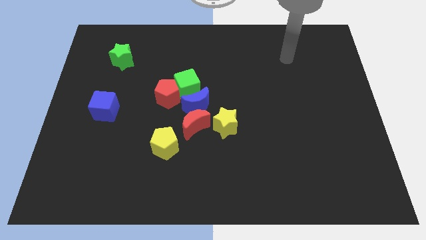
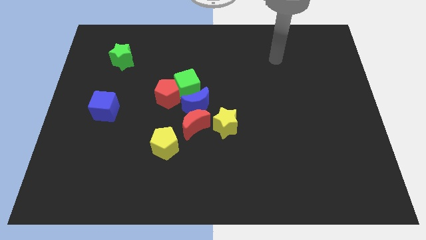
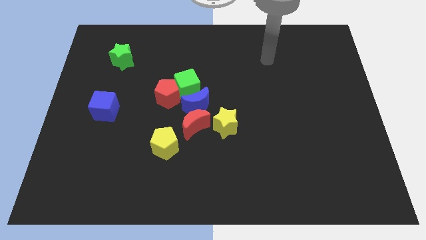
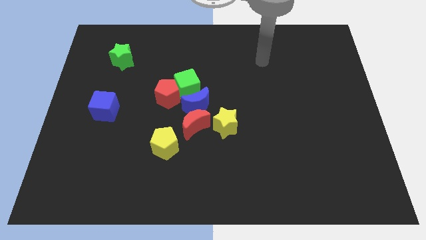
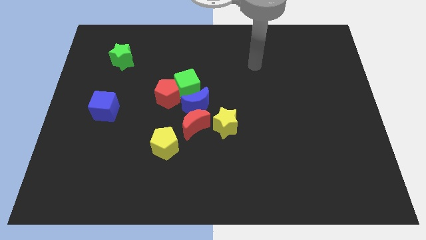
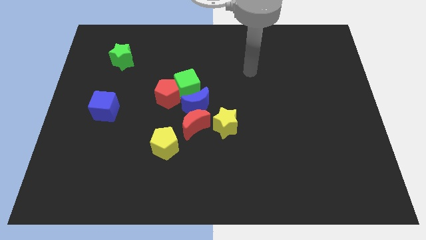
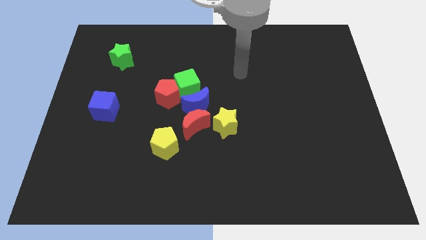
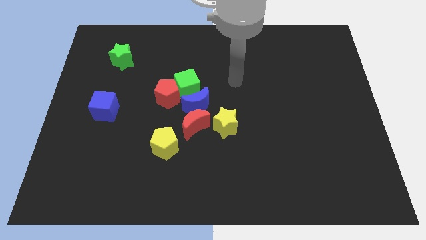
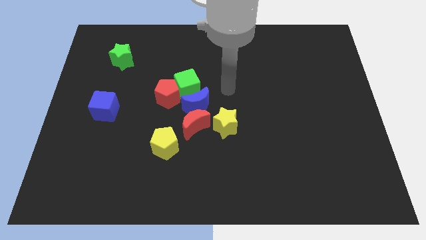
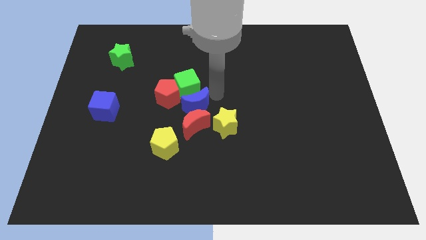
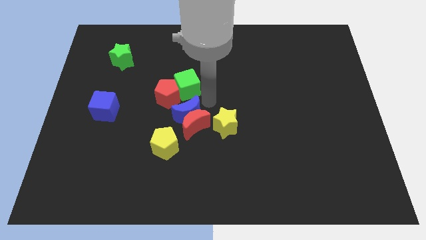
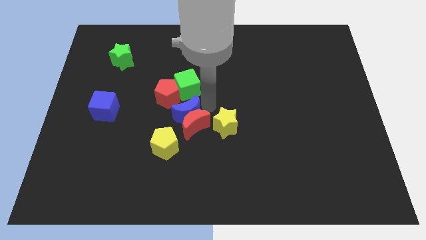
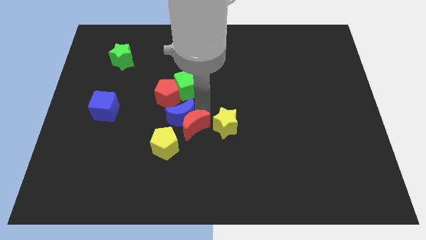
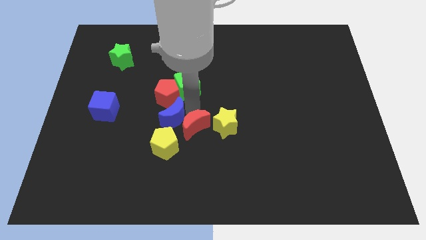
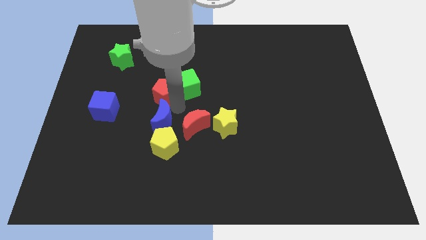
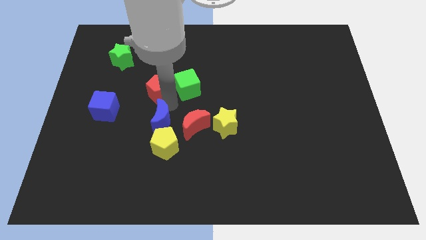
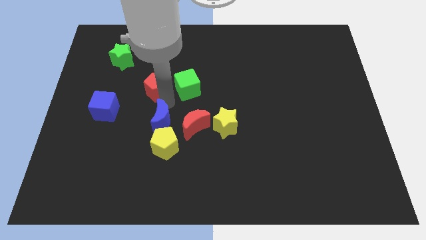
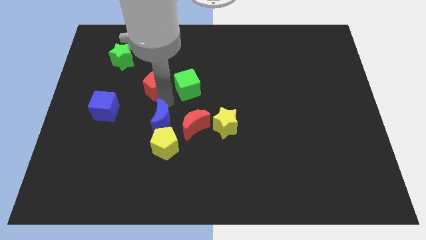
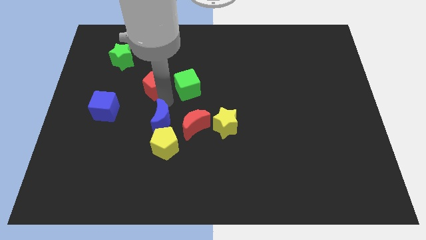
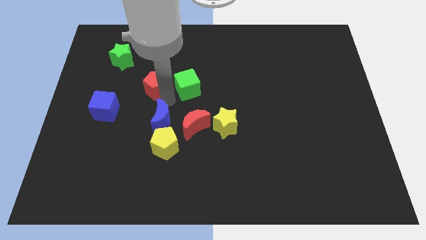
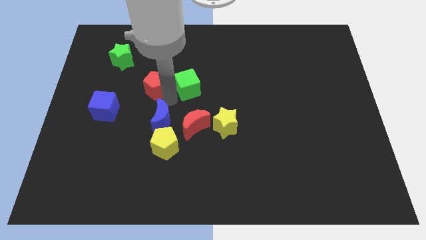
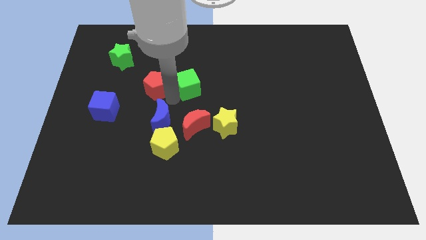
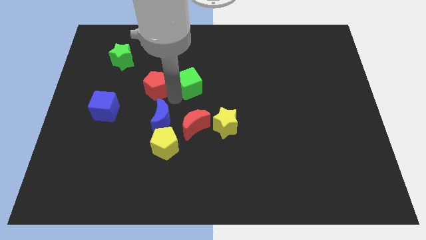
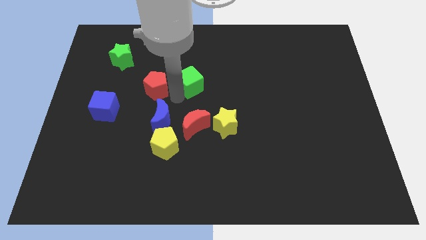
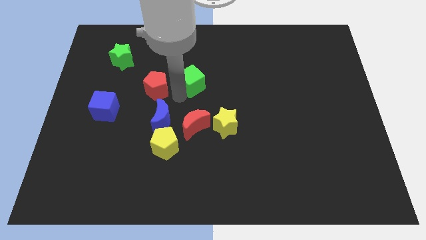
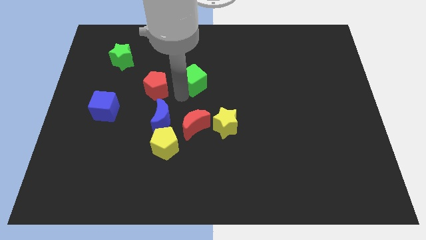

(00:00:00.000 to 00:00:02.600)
move the green cube away from the red pentagon and blue moon

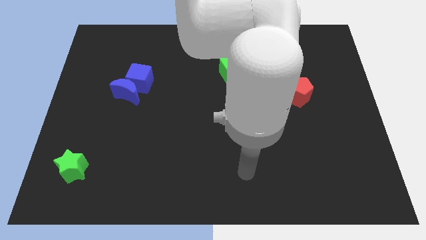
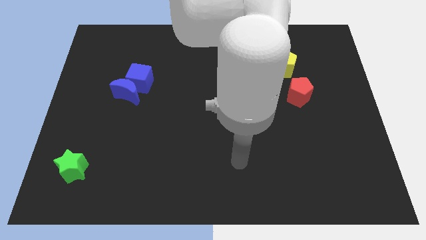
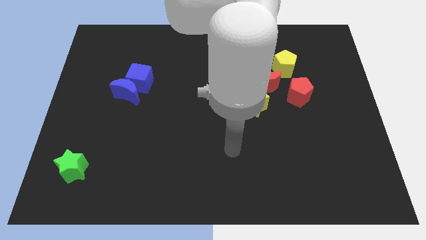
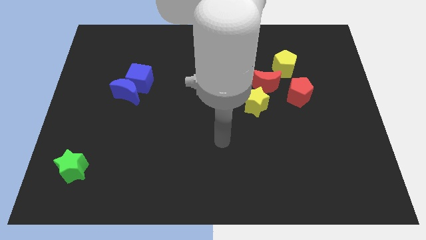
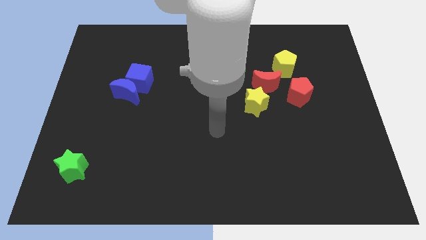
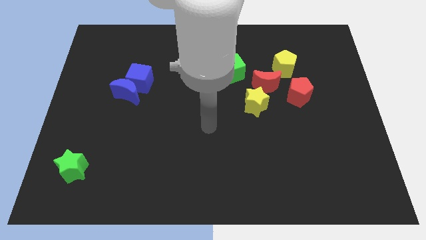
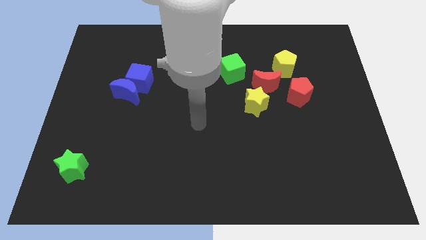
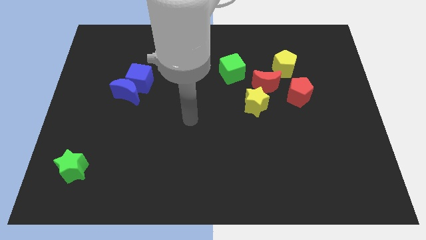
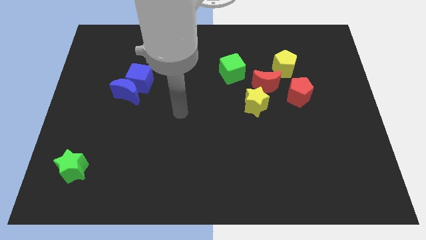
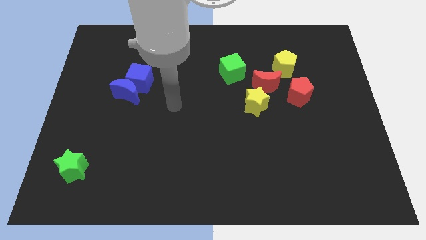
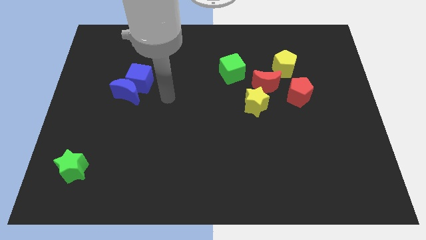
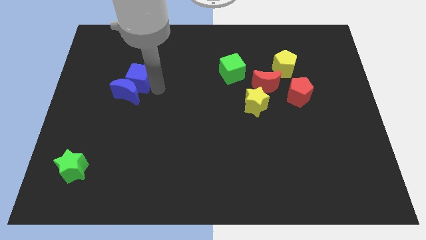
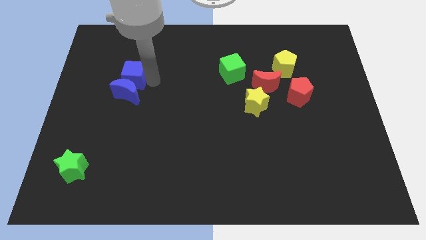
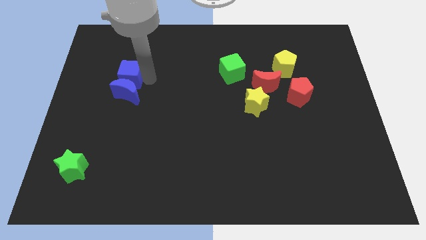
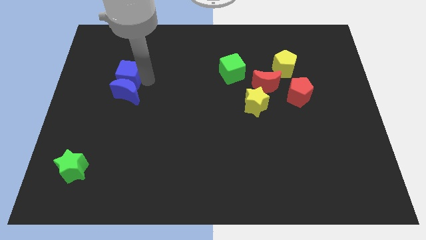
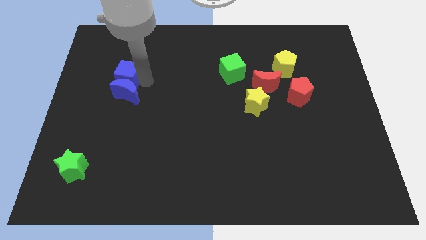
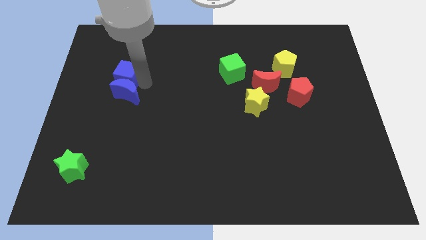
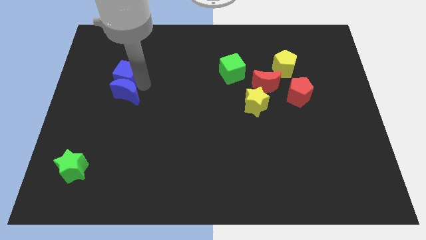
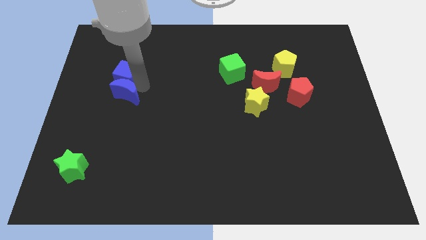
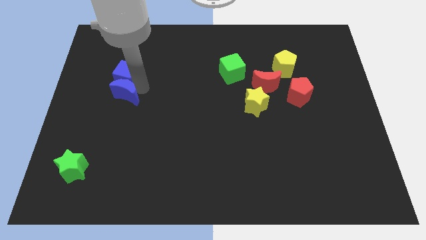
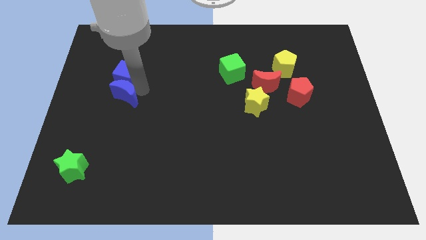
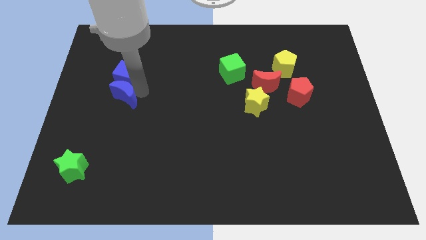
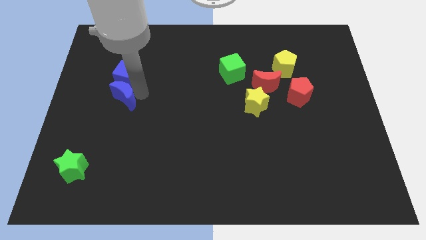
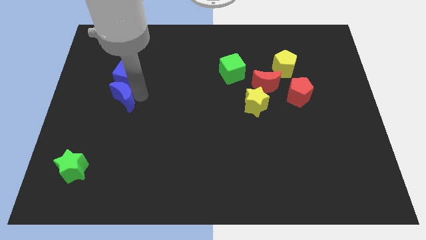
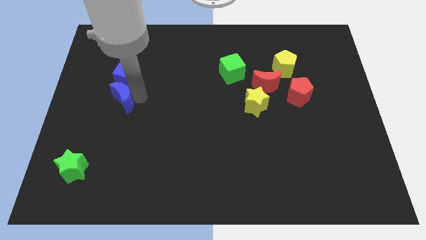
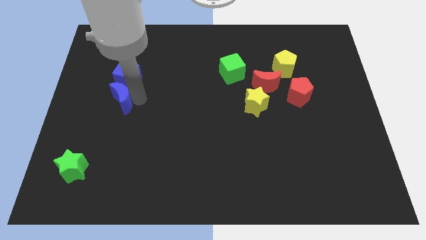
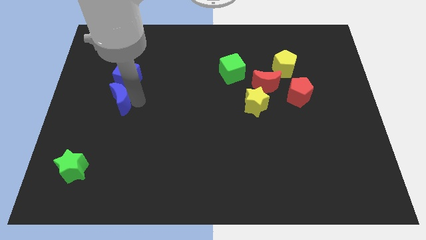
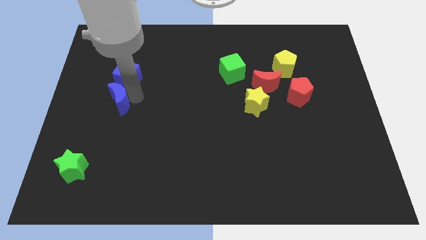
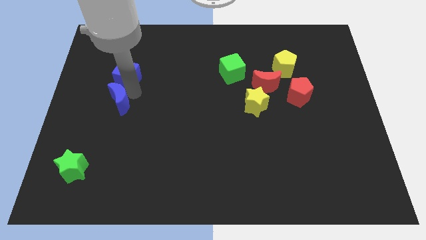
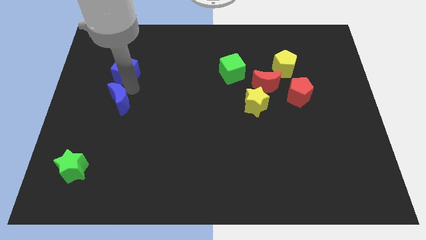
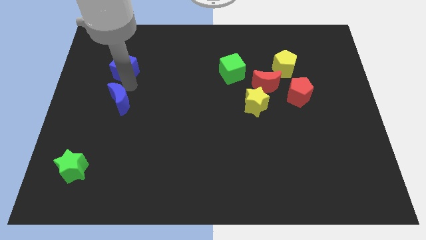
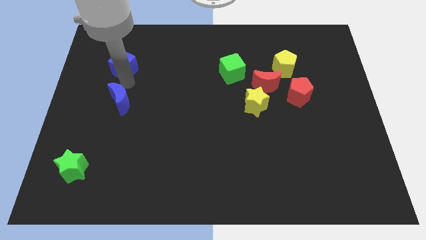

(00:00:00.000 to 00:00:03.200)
pull the blue moon apart from the blue cube

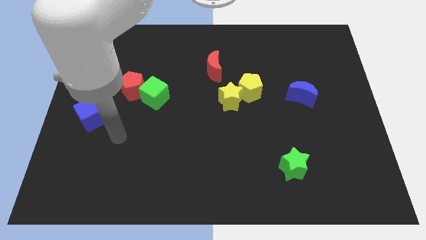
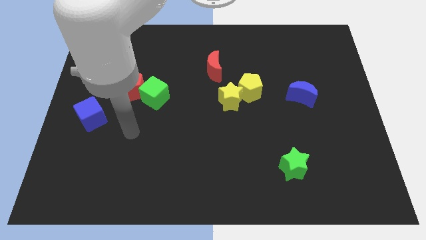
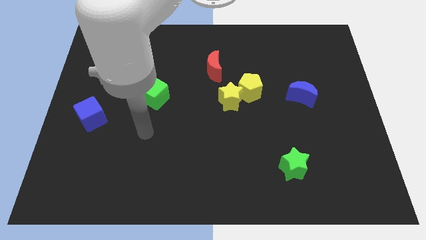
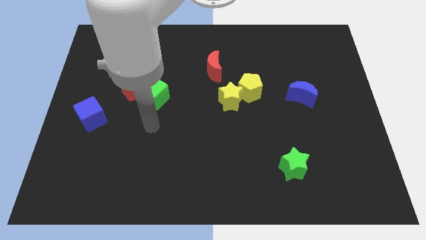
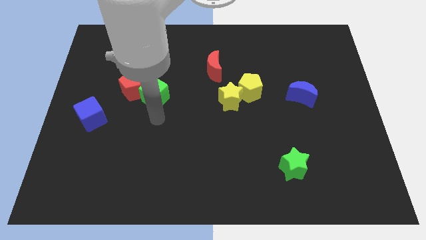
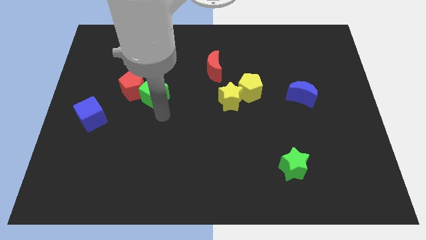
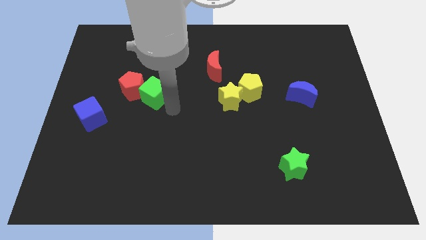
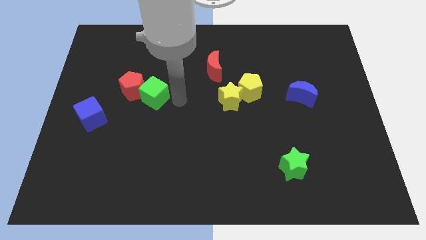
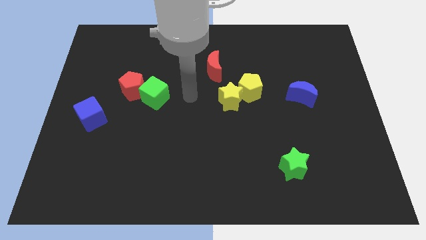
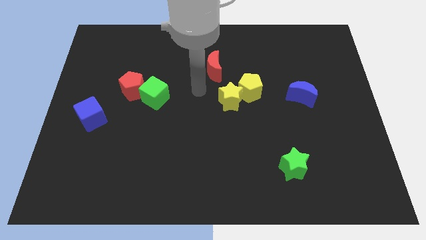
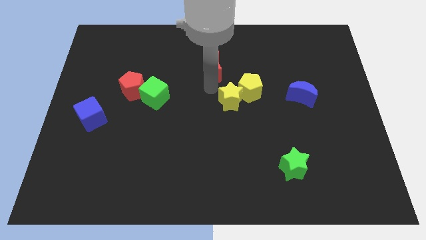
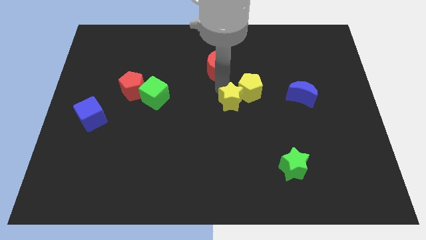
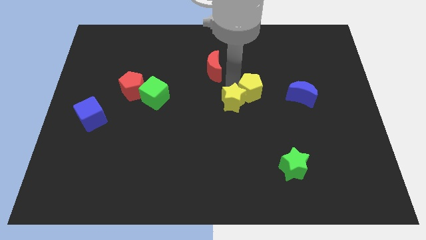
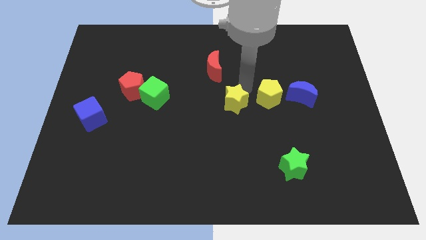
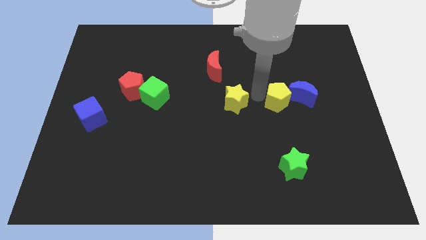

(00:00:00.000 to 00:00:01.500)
pull the yellow star apart from the yellow pentagon

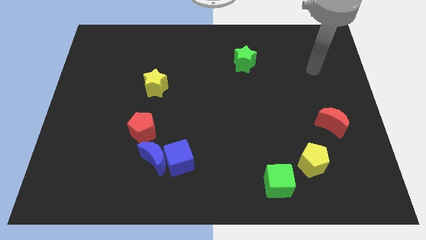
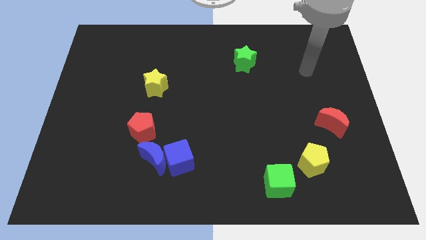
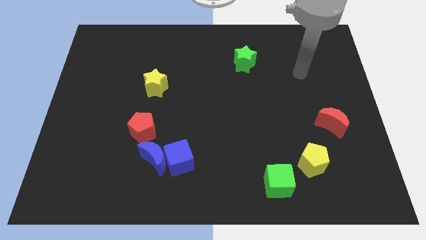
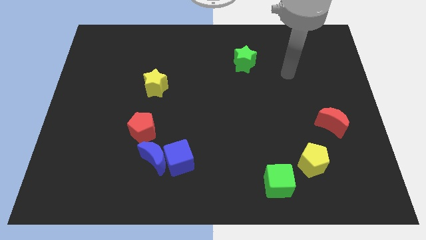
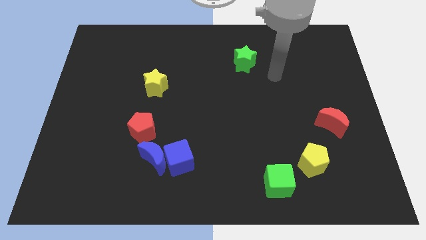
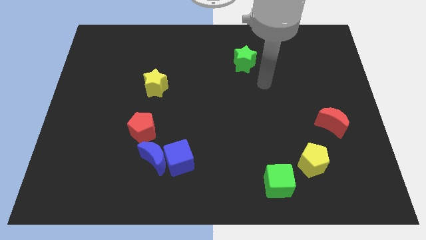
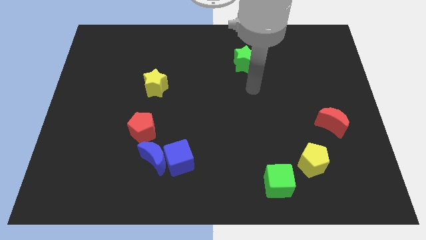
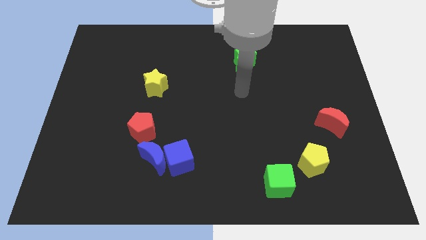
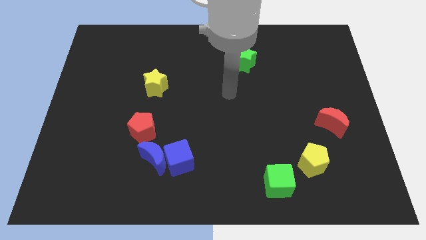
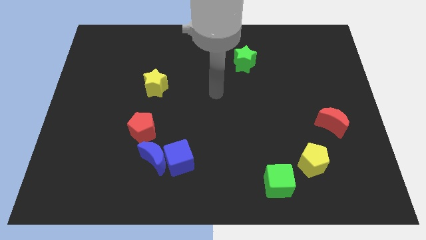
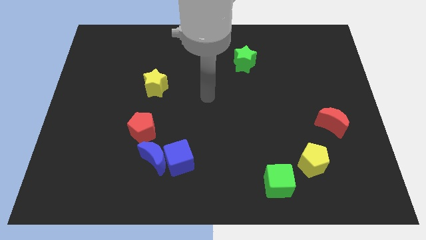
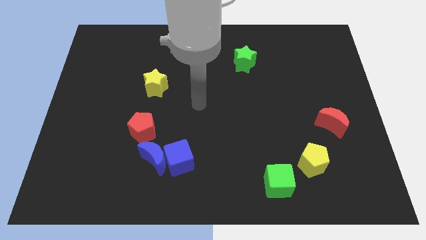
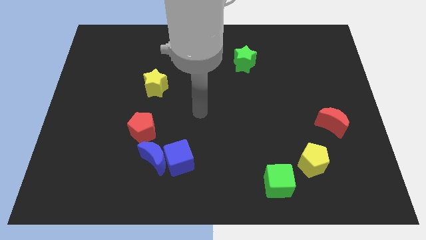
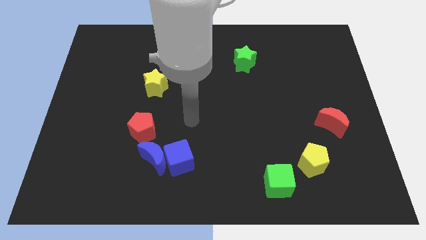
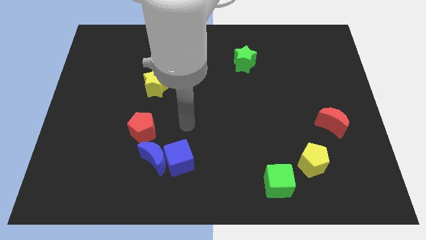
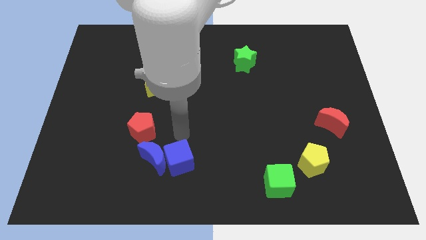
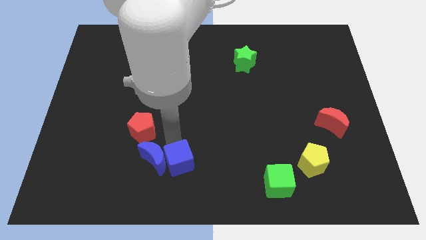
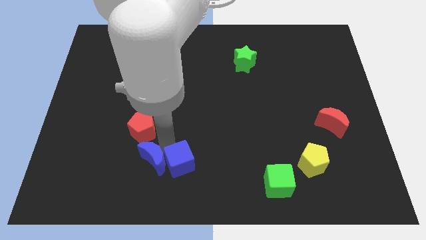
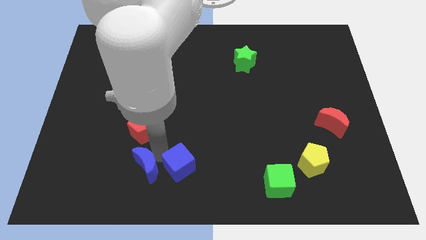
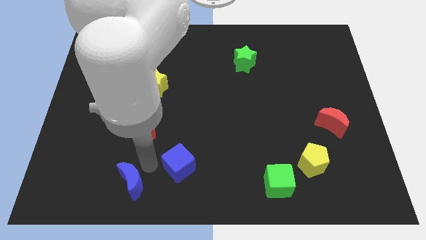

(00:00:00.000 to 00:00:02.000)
pull the blue cube apart from the blue moon

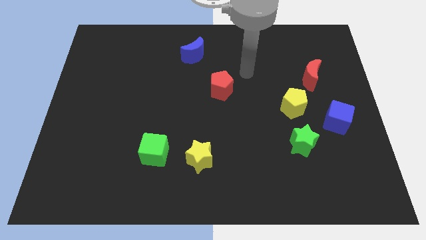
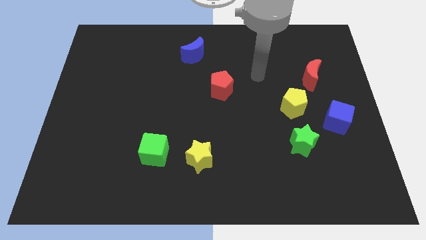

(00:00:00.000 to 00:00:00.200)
separate the green cube from the yellow star

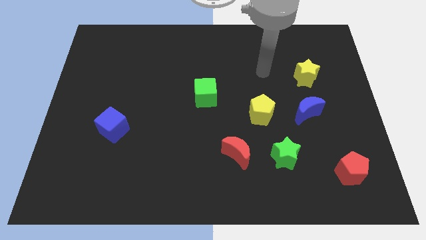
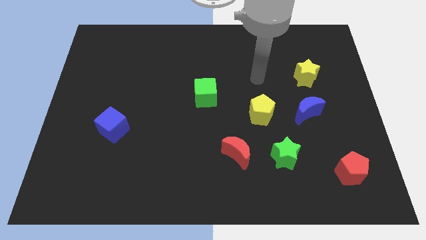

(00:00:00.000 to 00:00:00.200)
pull the red moon apart from the green star
